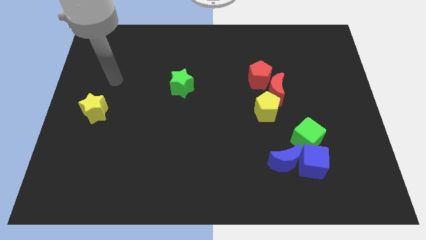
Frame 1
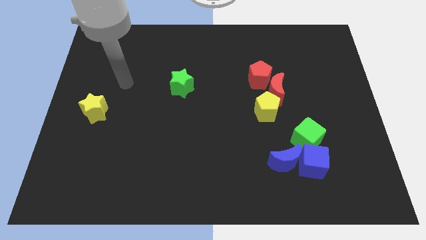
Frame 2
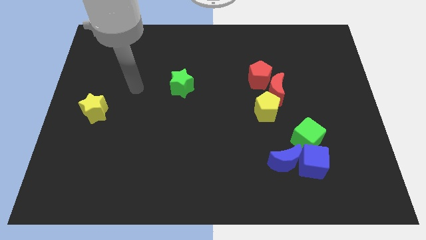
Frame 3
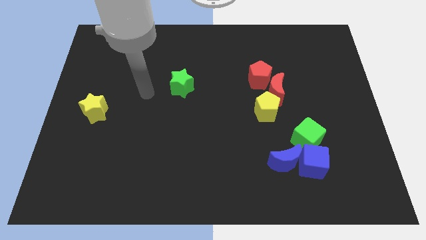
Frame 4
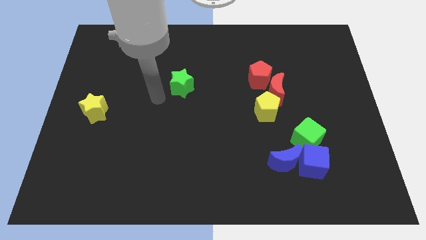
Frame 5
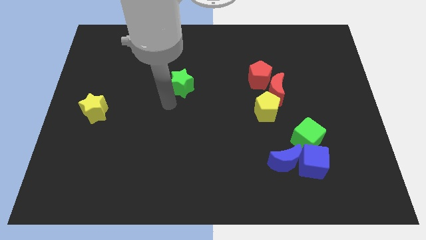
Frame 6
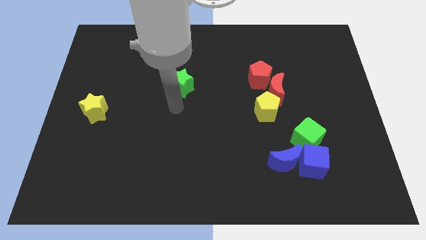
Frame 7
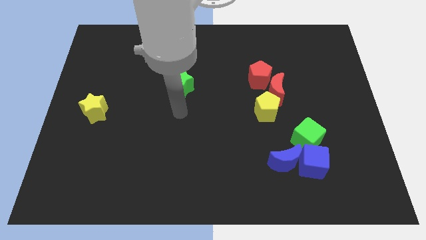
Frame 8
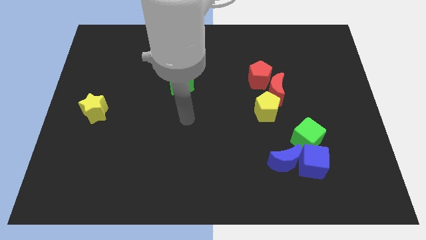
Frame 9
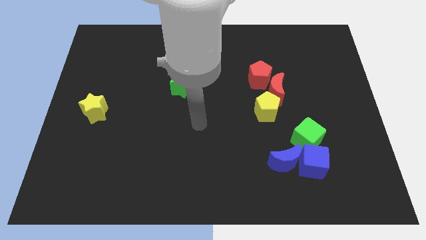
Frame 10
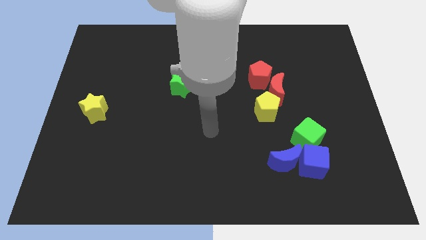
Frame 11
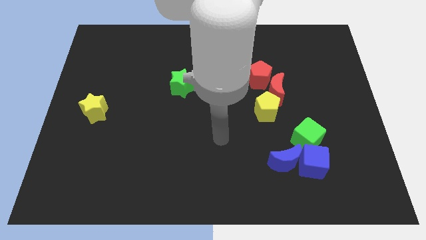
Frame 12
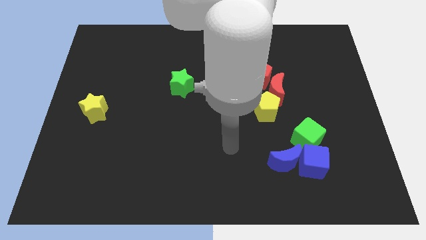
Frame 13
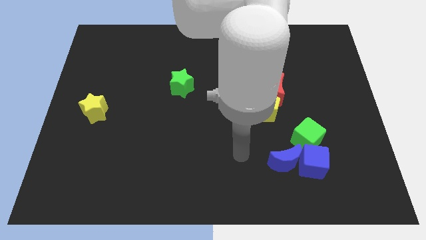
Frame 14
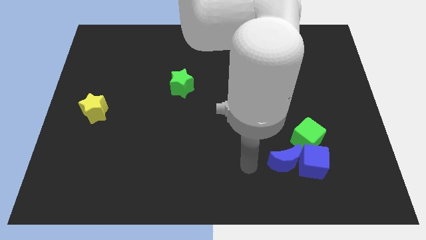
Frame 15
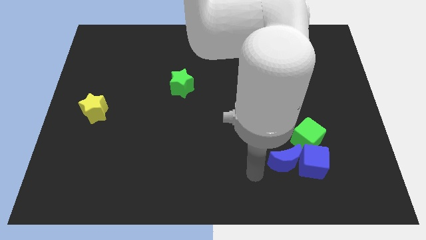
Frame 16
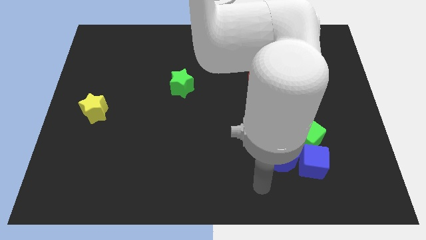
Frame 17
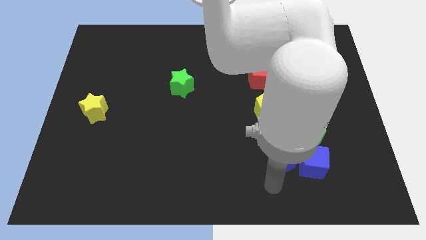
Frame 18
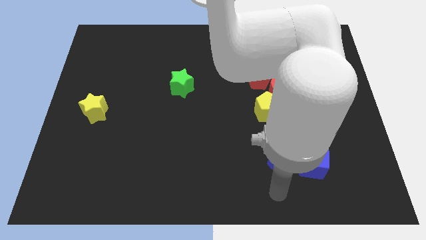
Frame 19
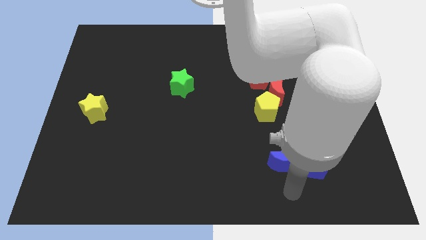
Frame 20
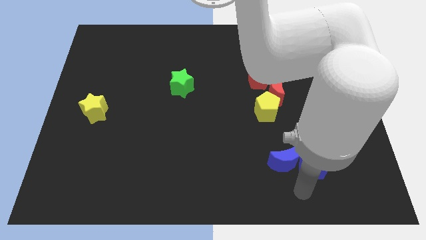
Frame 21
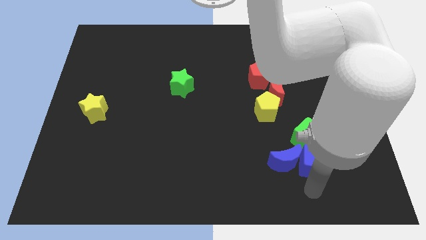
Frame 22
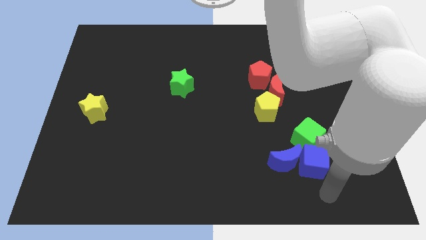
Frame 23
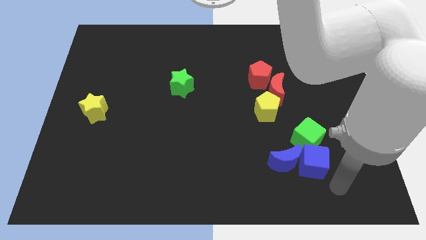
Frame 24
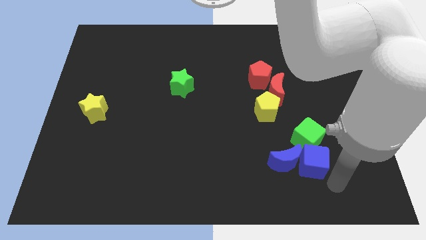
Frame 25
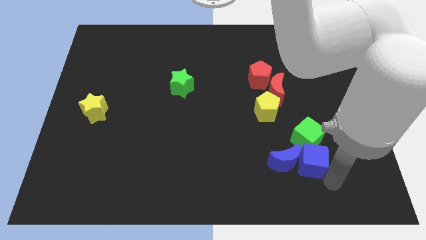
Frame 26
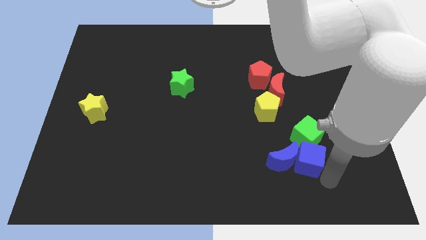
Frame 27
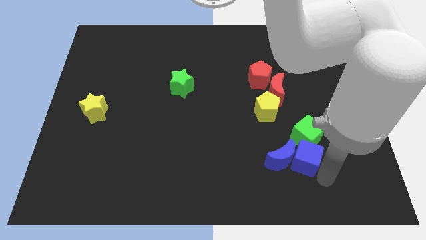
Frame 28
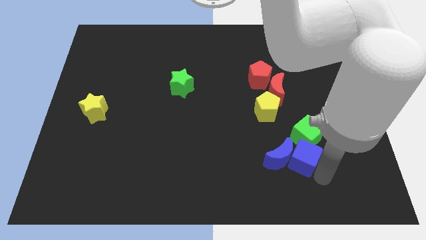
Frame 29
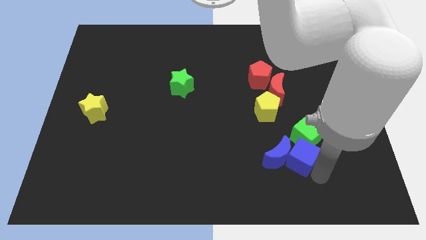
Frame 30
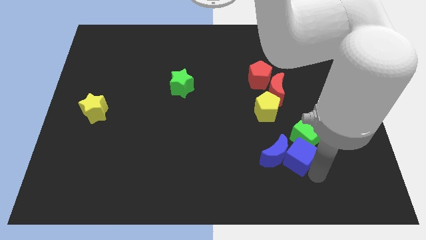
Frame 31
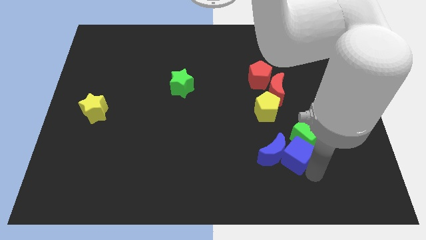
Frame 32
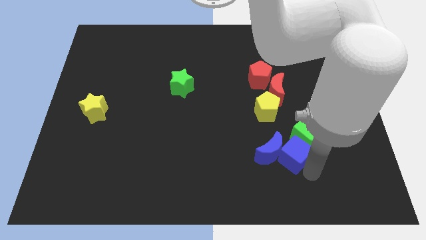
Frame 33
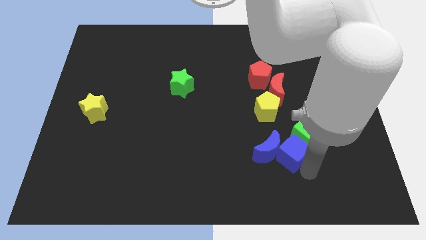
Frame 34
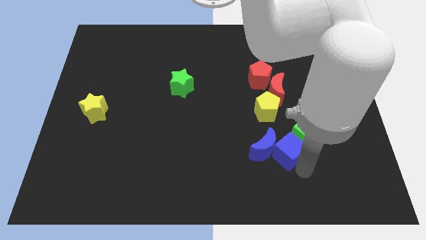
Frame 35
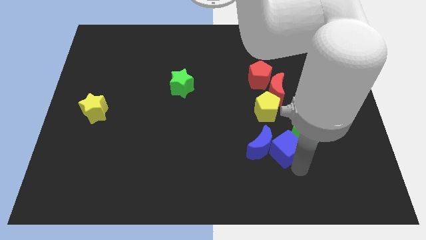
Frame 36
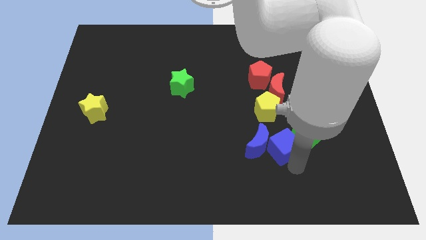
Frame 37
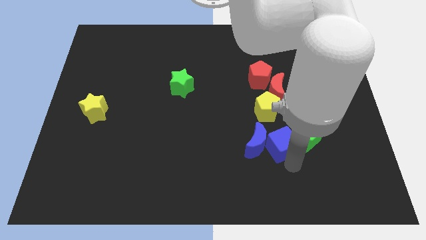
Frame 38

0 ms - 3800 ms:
move the blue cube up and to the left somewhat

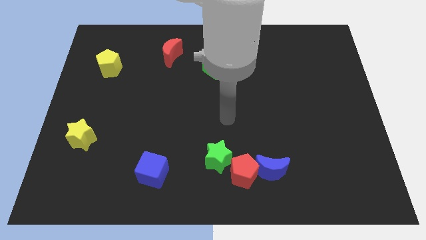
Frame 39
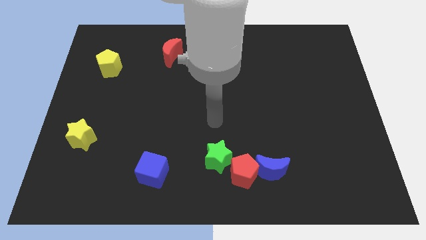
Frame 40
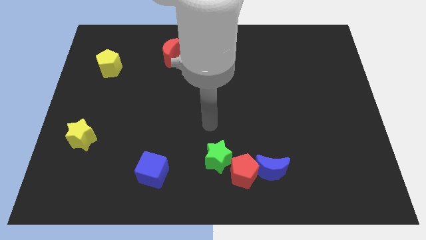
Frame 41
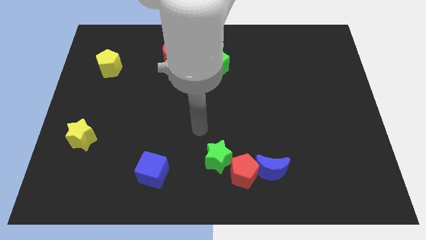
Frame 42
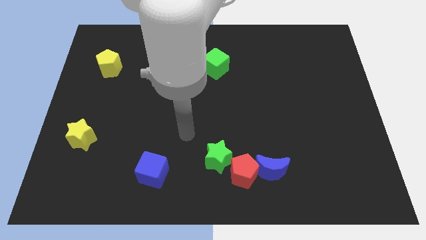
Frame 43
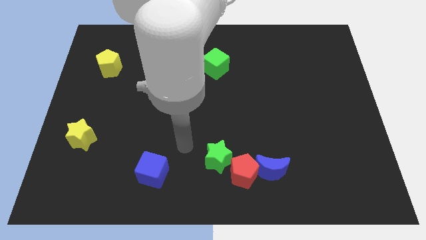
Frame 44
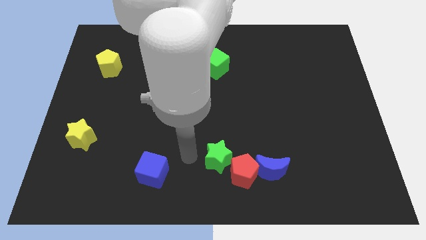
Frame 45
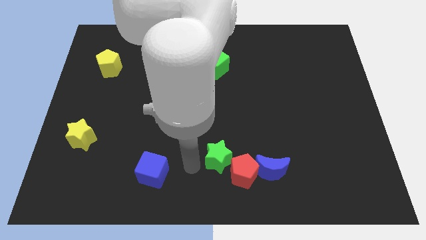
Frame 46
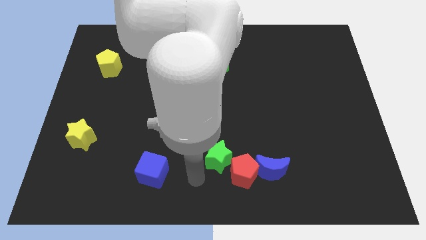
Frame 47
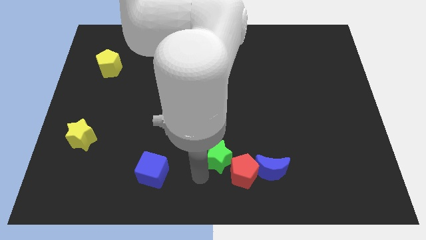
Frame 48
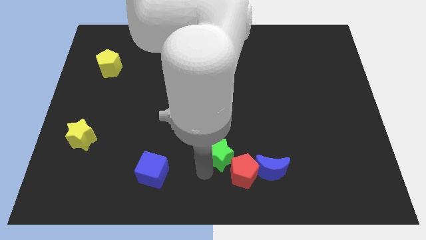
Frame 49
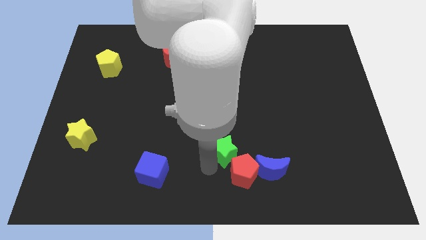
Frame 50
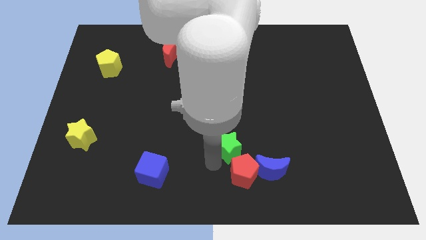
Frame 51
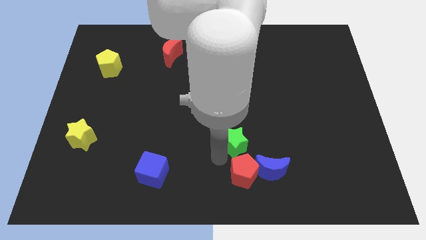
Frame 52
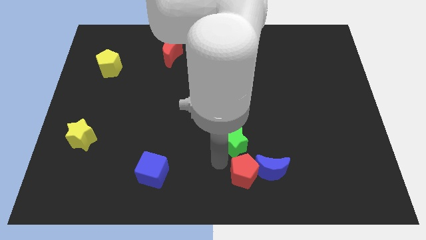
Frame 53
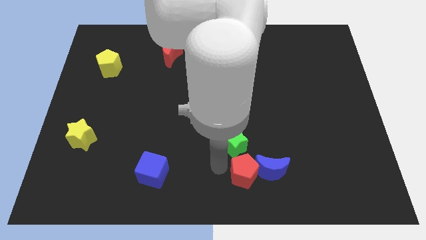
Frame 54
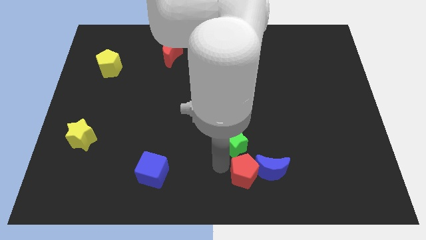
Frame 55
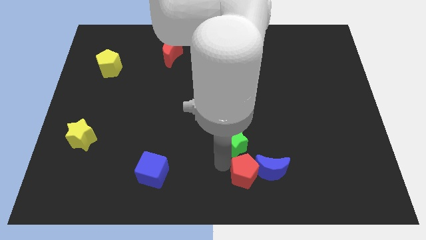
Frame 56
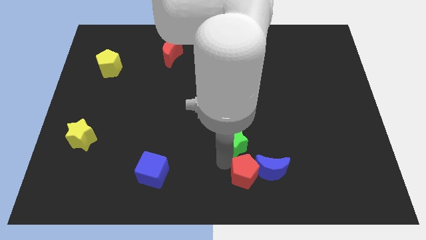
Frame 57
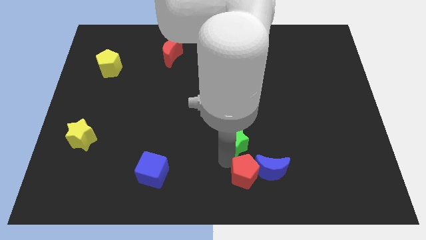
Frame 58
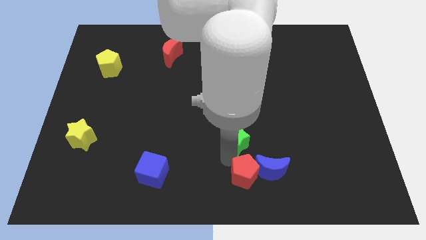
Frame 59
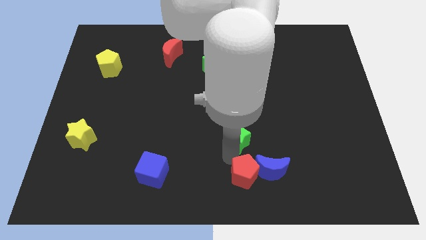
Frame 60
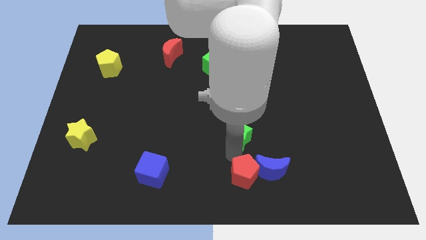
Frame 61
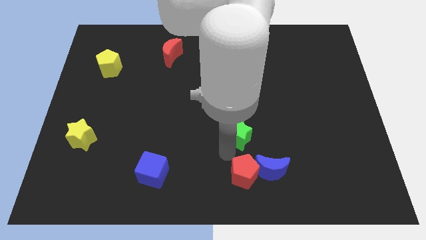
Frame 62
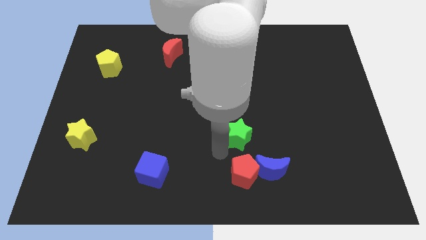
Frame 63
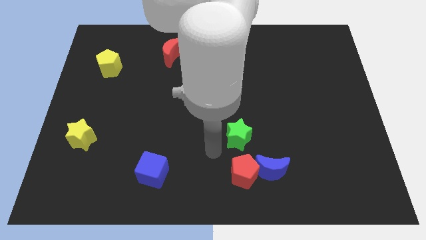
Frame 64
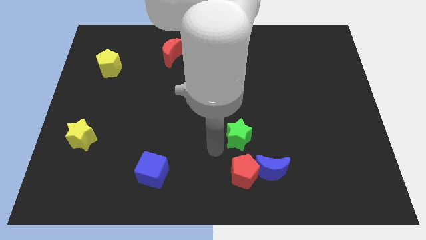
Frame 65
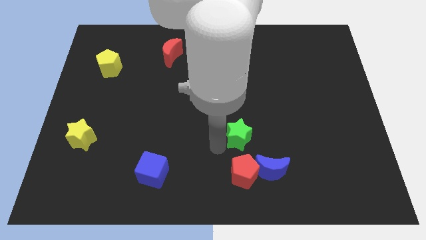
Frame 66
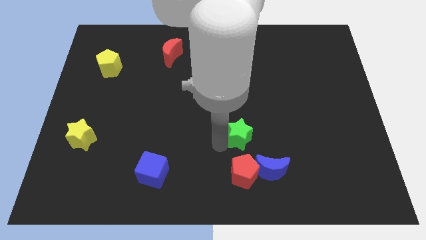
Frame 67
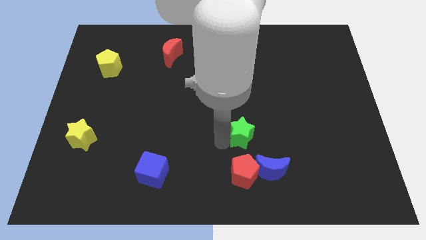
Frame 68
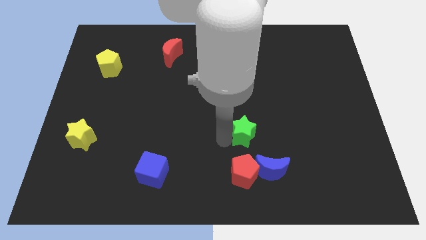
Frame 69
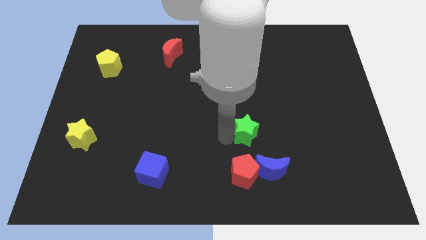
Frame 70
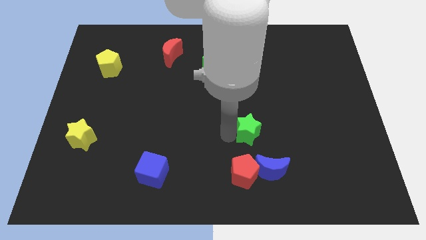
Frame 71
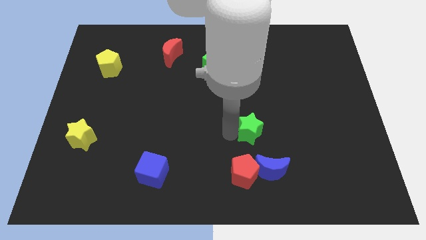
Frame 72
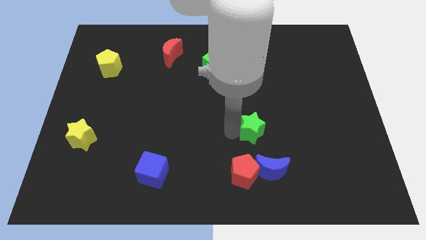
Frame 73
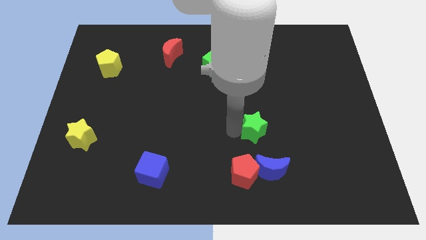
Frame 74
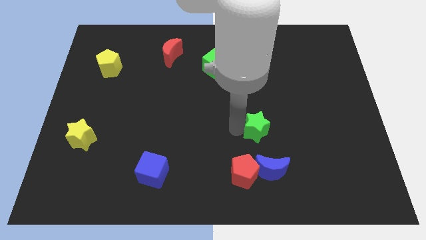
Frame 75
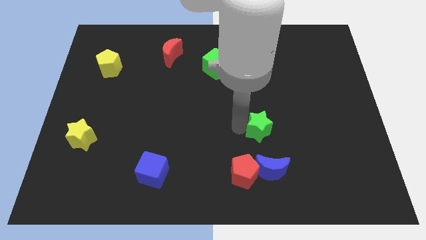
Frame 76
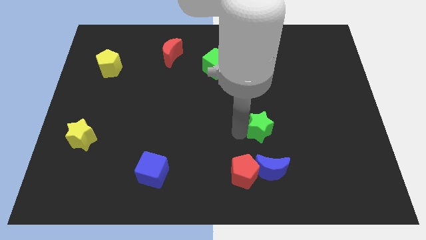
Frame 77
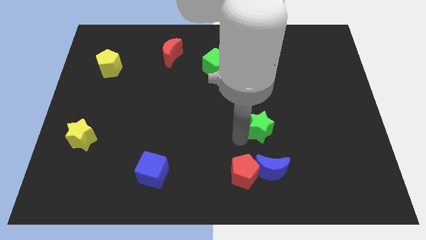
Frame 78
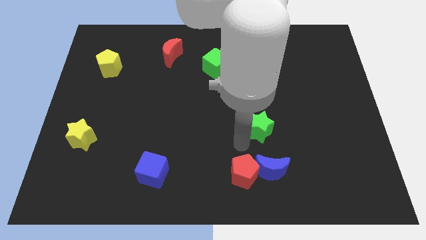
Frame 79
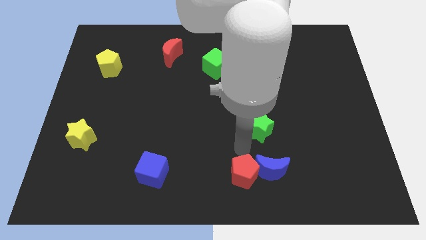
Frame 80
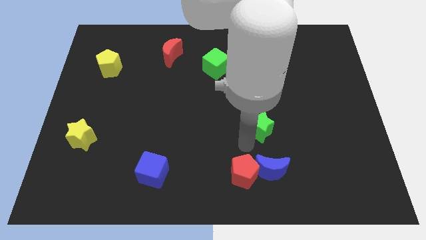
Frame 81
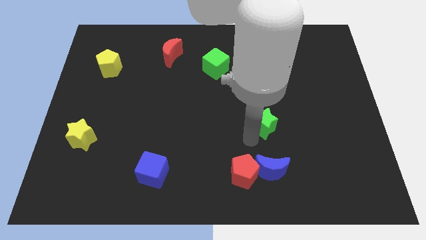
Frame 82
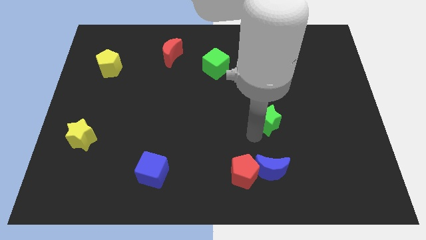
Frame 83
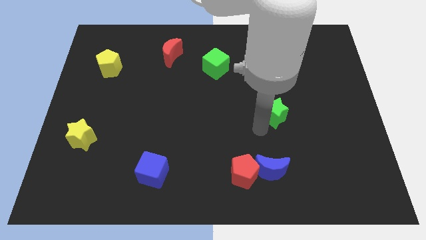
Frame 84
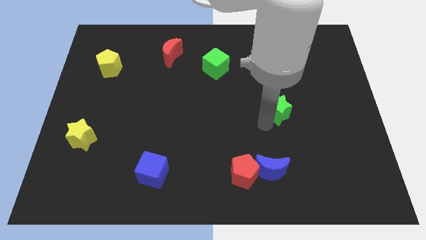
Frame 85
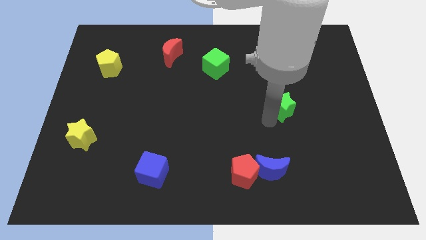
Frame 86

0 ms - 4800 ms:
slide the green star up and right
